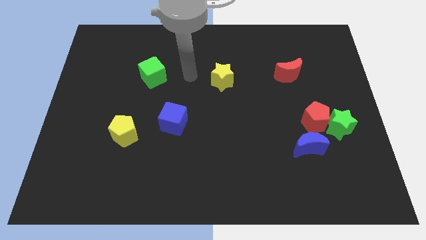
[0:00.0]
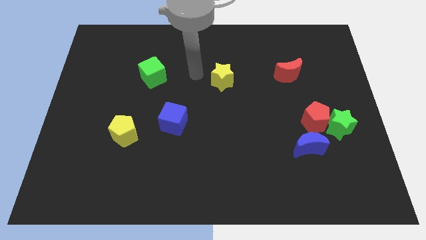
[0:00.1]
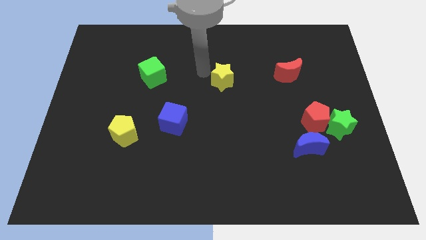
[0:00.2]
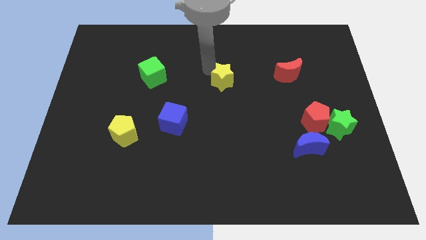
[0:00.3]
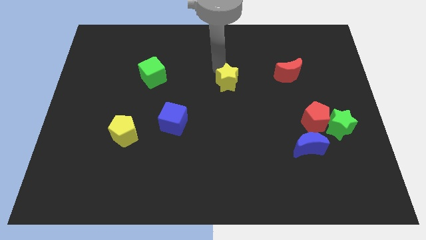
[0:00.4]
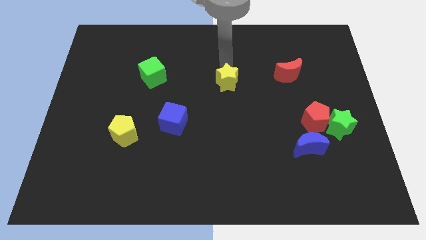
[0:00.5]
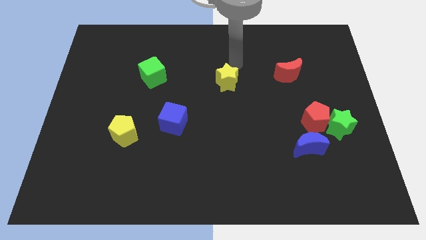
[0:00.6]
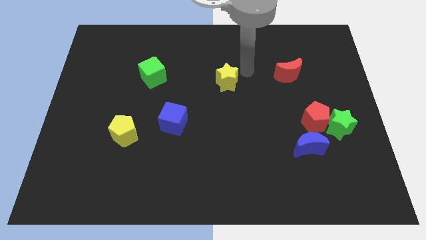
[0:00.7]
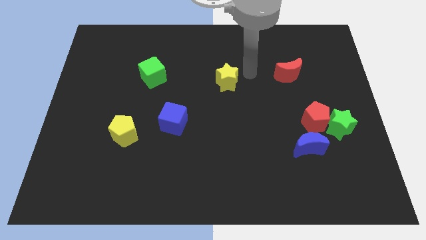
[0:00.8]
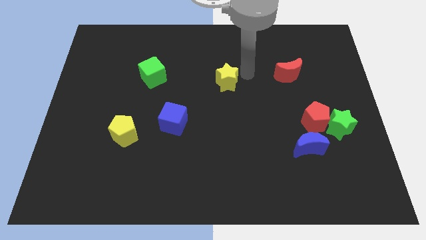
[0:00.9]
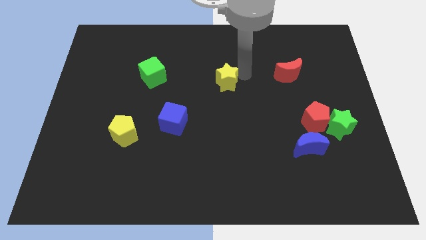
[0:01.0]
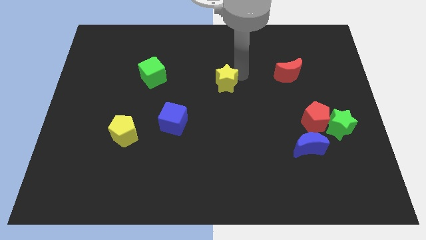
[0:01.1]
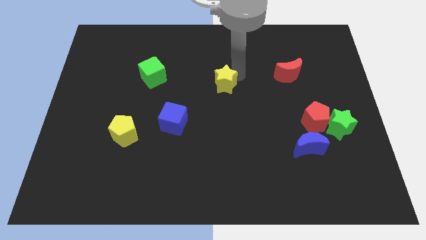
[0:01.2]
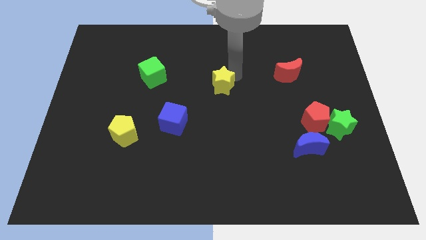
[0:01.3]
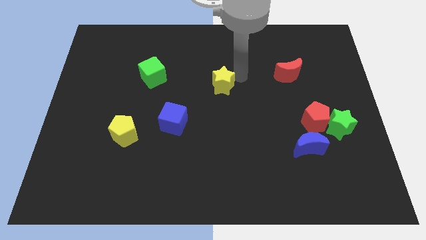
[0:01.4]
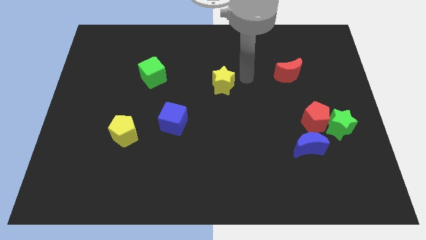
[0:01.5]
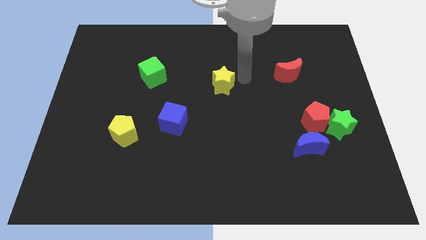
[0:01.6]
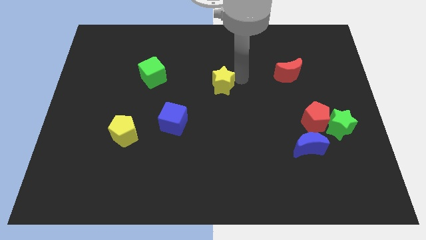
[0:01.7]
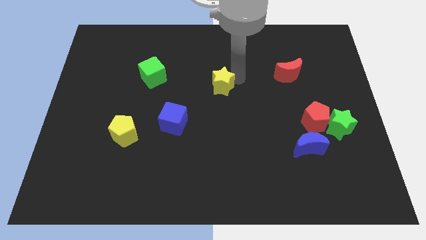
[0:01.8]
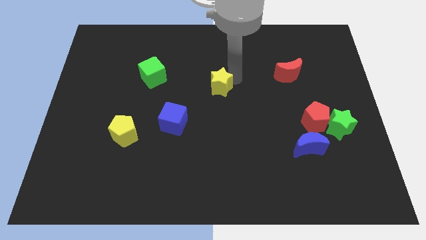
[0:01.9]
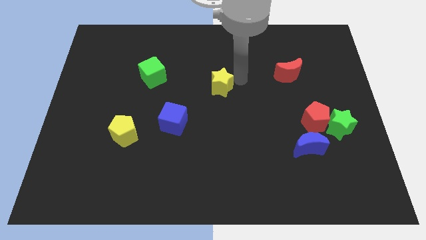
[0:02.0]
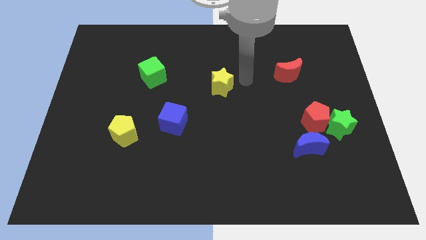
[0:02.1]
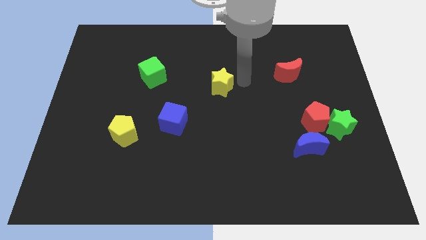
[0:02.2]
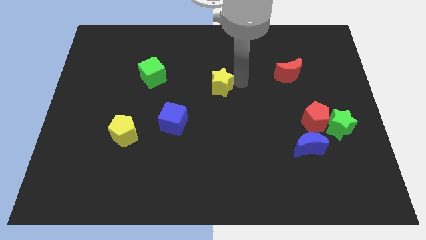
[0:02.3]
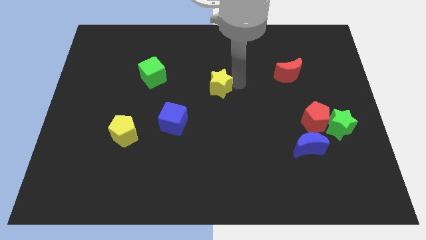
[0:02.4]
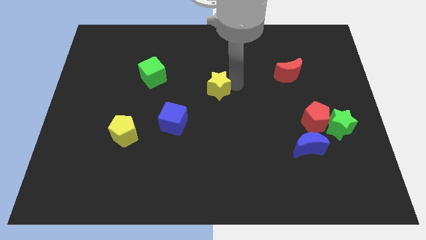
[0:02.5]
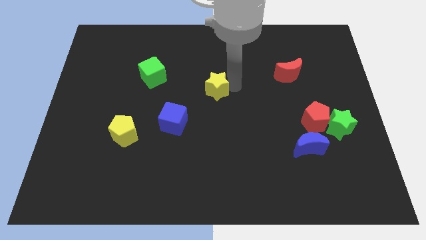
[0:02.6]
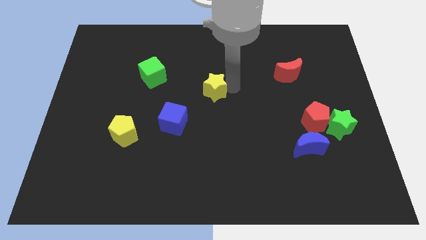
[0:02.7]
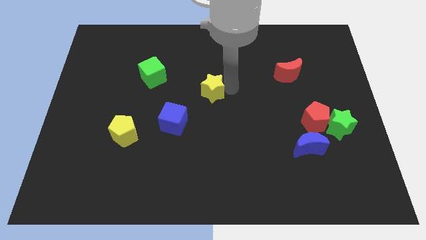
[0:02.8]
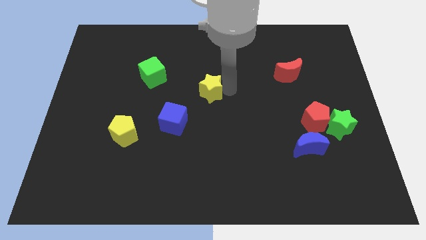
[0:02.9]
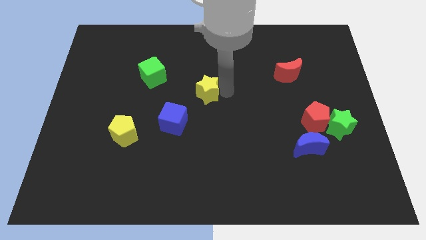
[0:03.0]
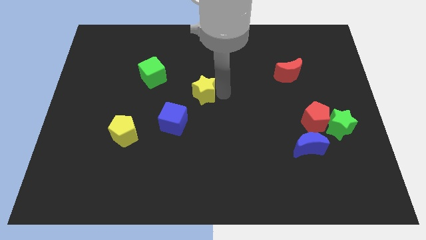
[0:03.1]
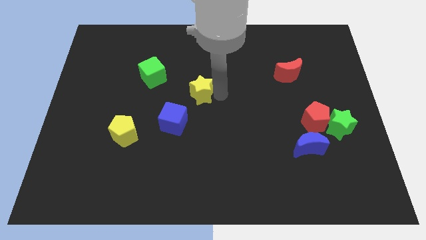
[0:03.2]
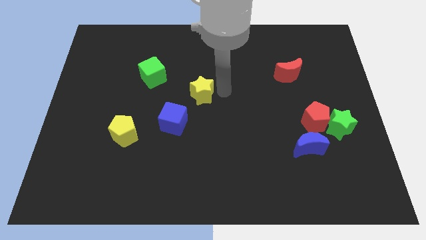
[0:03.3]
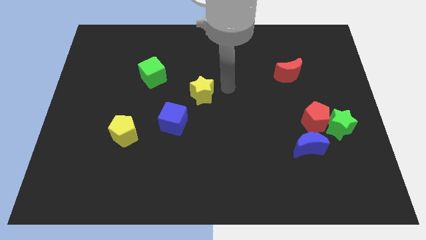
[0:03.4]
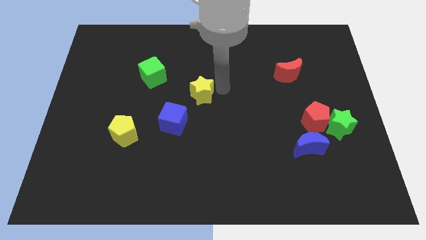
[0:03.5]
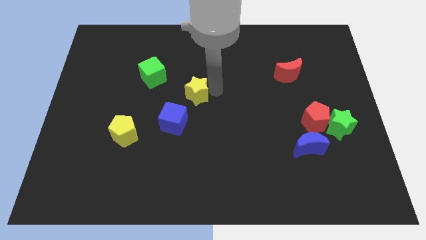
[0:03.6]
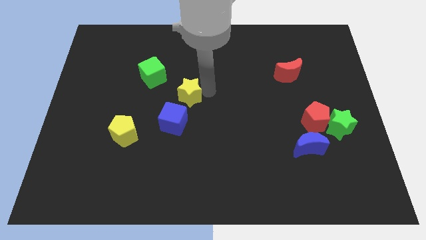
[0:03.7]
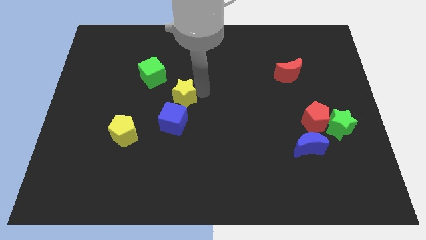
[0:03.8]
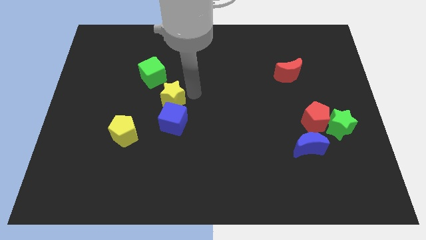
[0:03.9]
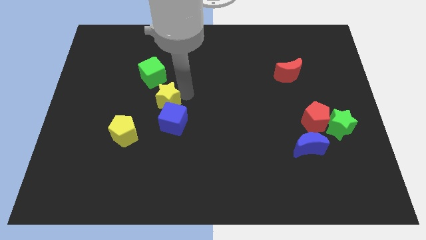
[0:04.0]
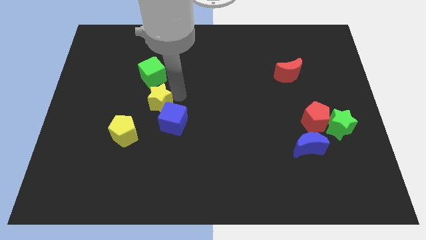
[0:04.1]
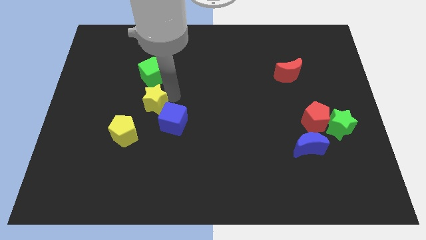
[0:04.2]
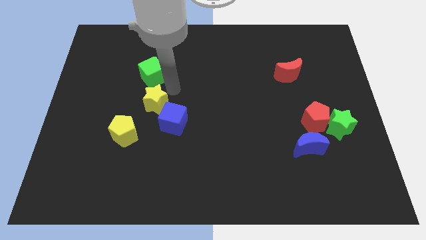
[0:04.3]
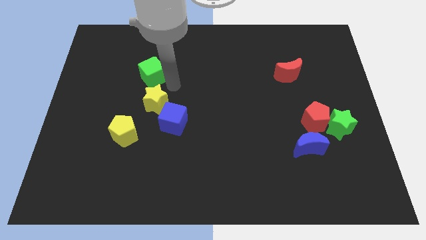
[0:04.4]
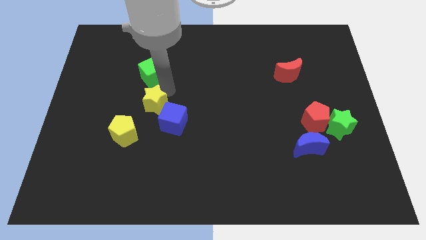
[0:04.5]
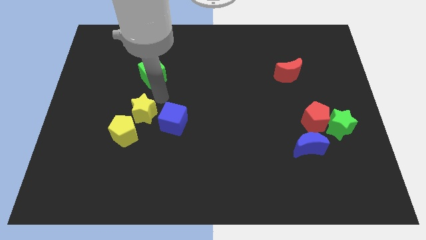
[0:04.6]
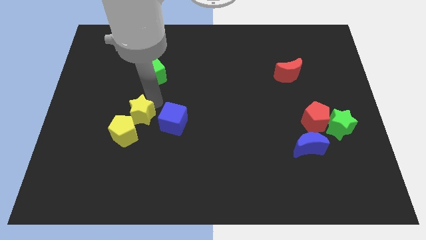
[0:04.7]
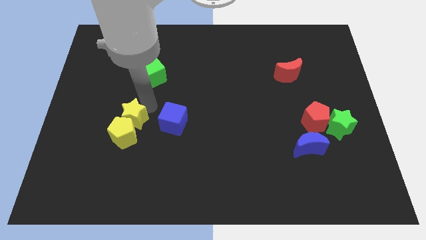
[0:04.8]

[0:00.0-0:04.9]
slide the yellow star close to the yellow pentagon

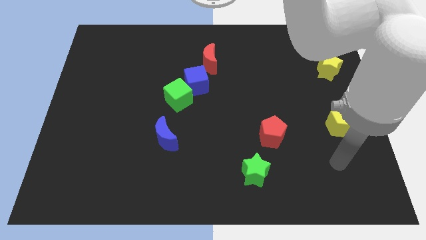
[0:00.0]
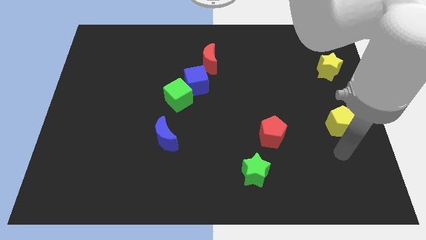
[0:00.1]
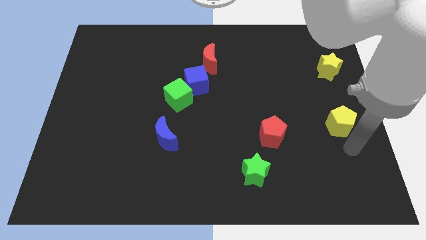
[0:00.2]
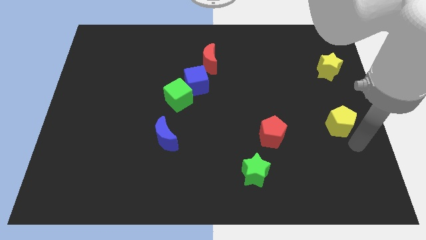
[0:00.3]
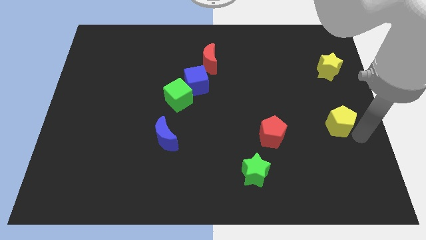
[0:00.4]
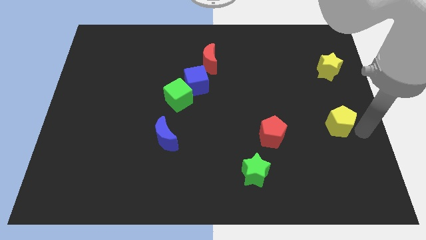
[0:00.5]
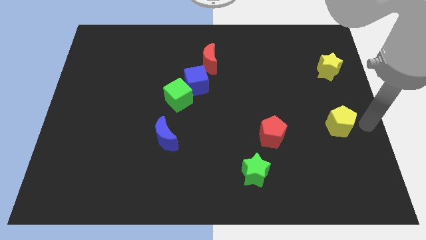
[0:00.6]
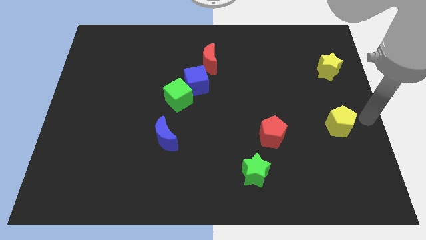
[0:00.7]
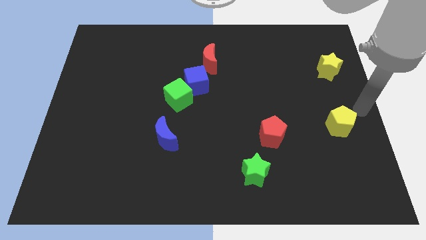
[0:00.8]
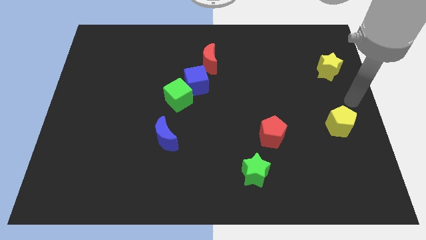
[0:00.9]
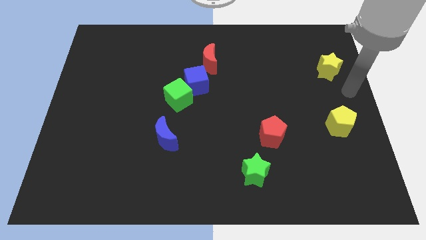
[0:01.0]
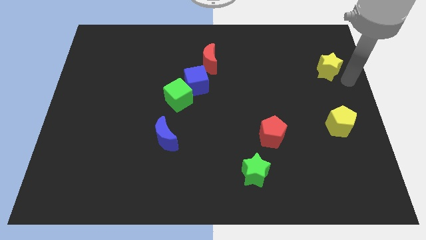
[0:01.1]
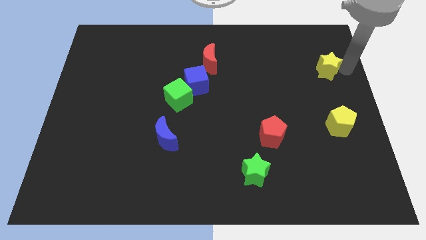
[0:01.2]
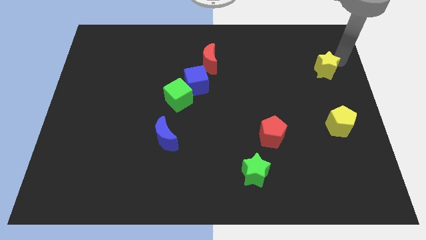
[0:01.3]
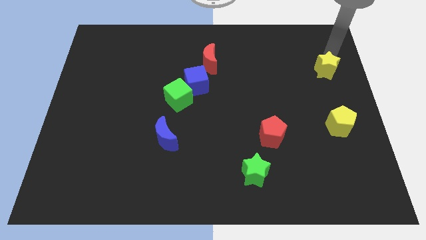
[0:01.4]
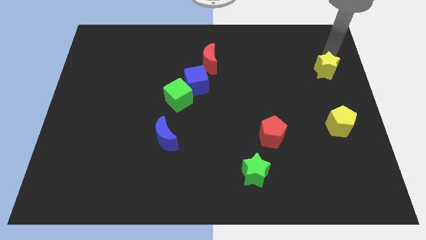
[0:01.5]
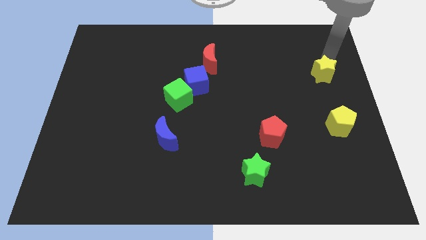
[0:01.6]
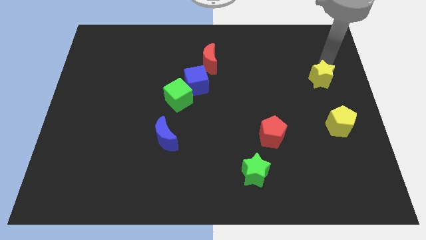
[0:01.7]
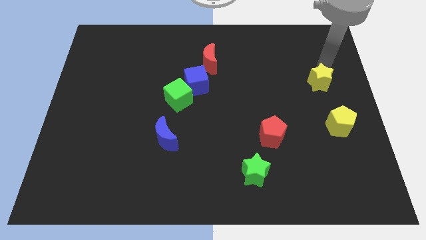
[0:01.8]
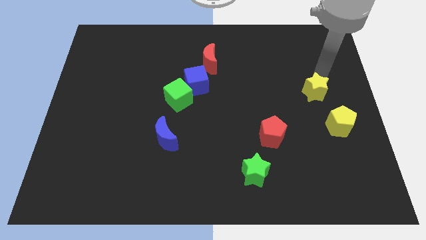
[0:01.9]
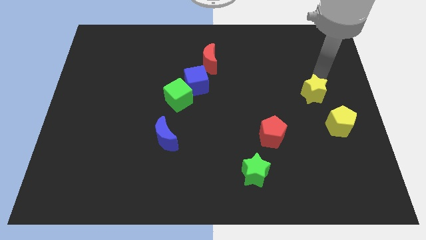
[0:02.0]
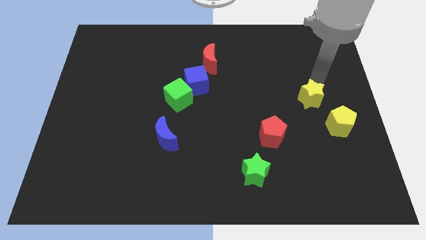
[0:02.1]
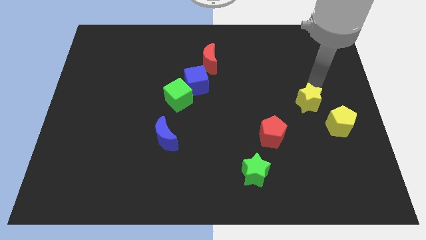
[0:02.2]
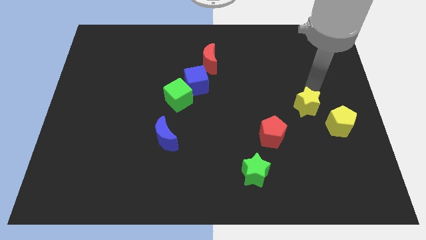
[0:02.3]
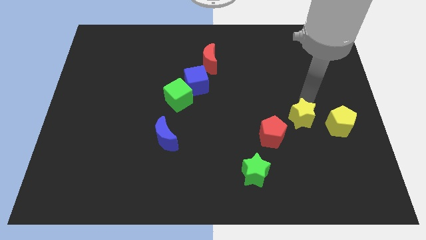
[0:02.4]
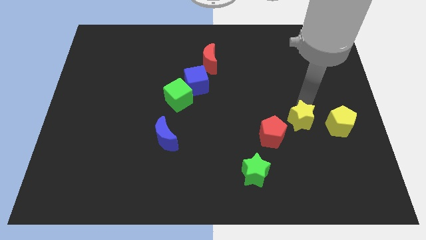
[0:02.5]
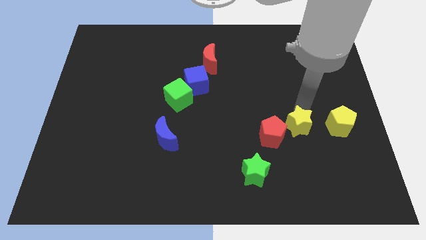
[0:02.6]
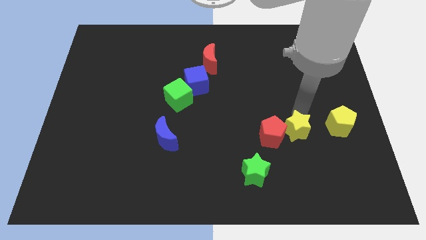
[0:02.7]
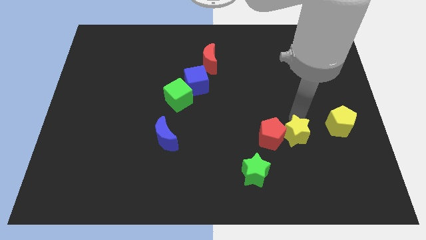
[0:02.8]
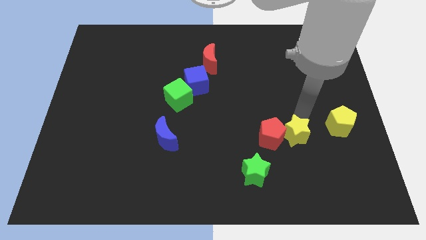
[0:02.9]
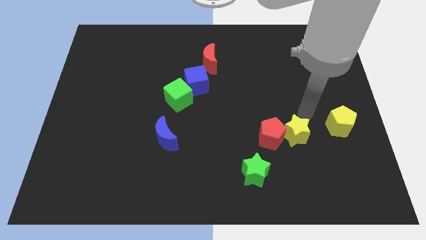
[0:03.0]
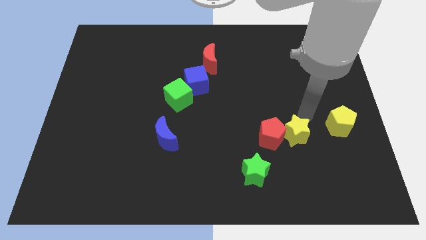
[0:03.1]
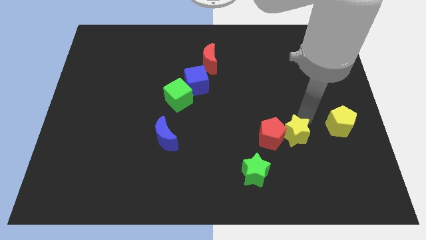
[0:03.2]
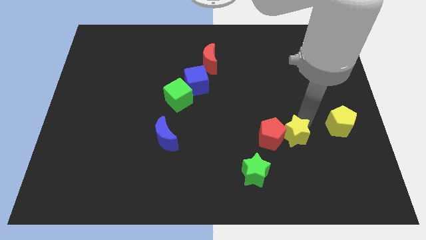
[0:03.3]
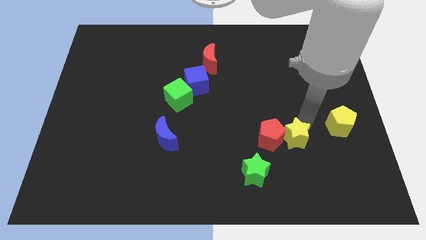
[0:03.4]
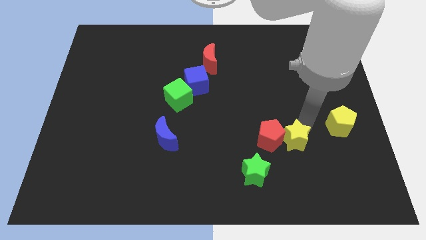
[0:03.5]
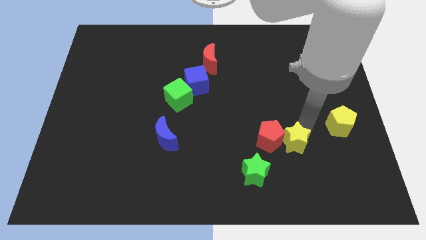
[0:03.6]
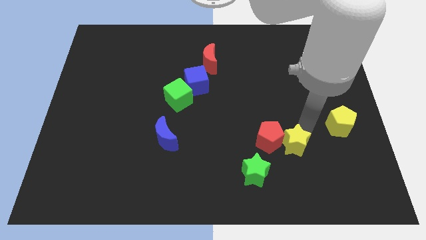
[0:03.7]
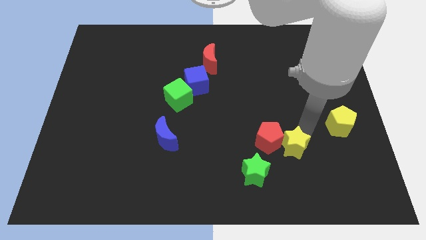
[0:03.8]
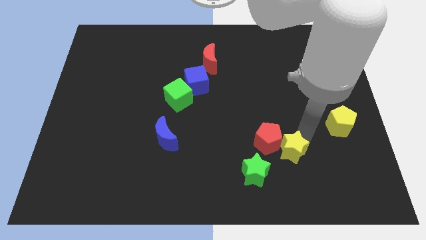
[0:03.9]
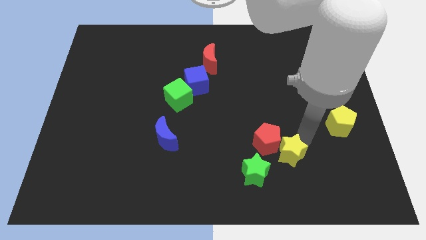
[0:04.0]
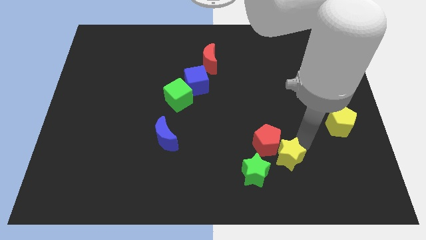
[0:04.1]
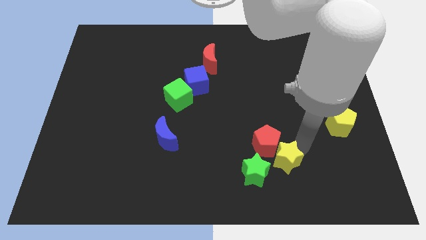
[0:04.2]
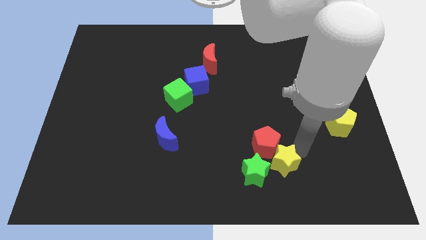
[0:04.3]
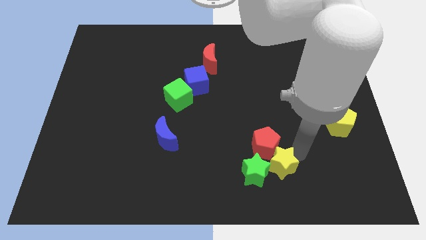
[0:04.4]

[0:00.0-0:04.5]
push the yellow star close to the green star
